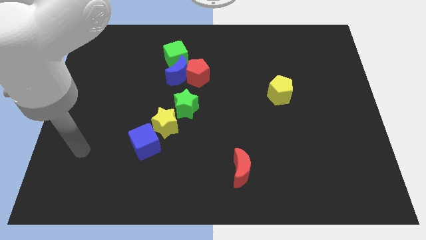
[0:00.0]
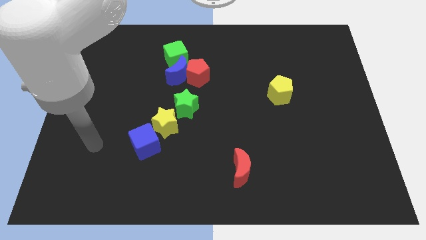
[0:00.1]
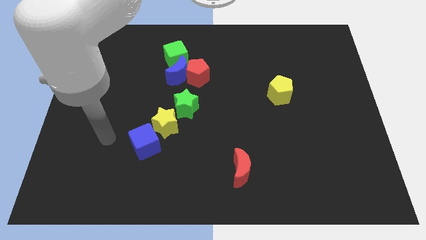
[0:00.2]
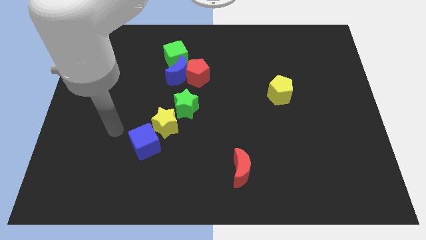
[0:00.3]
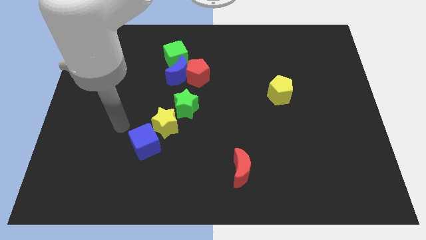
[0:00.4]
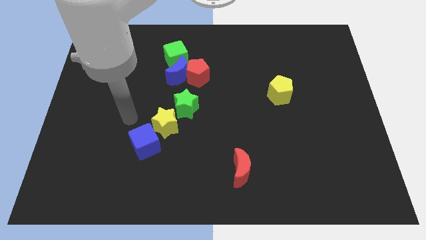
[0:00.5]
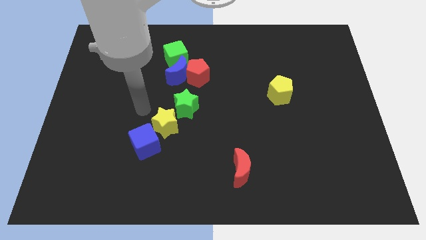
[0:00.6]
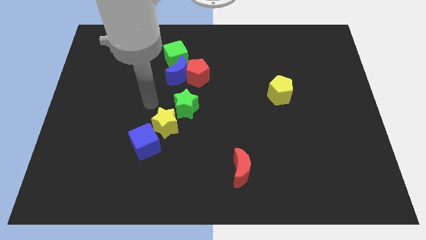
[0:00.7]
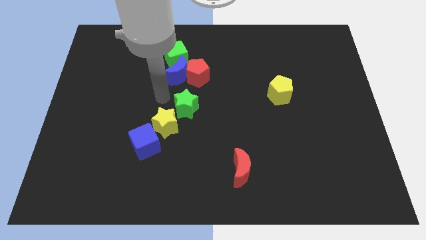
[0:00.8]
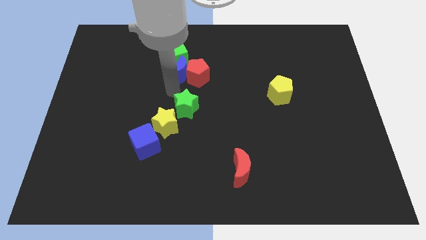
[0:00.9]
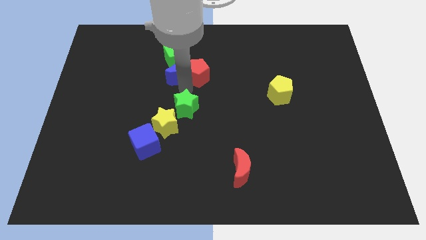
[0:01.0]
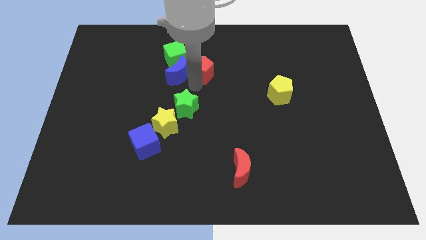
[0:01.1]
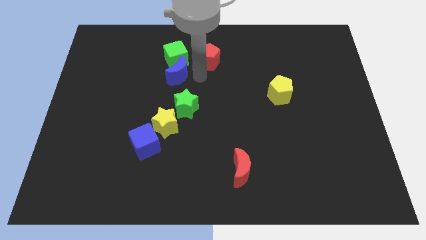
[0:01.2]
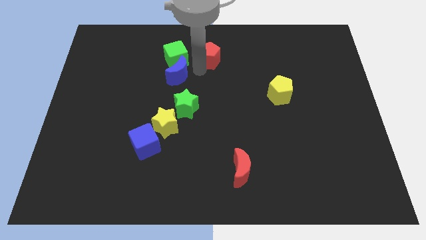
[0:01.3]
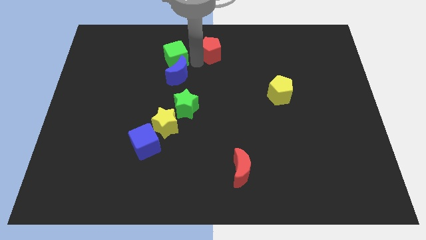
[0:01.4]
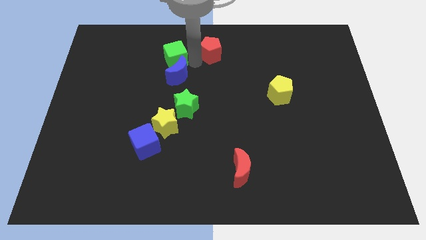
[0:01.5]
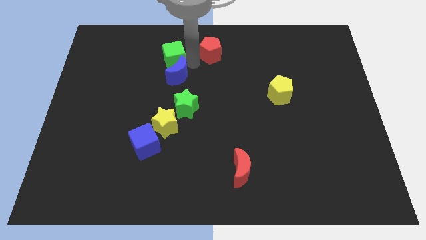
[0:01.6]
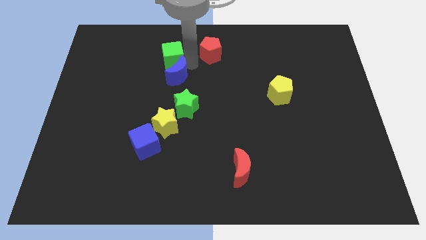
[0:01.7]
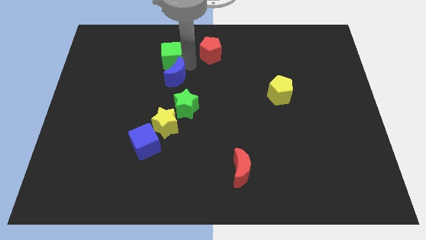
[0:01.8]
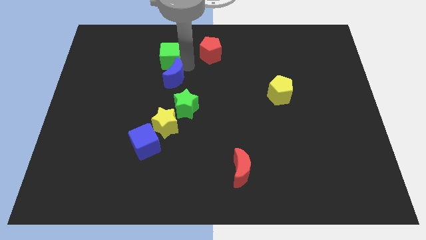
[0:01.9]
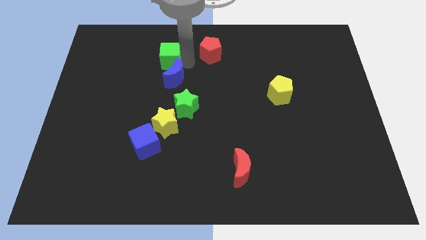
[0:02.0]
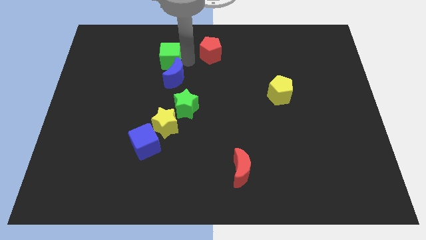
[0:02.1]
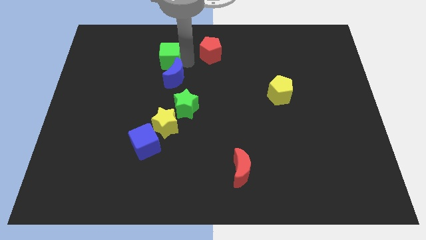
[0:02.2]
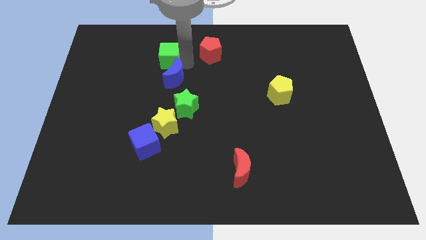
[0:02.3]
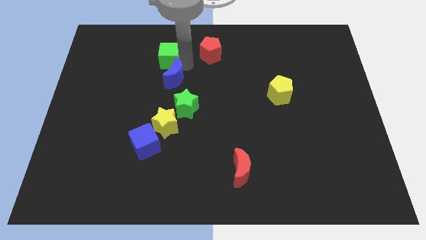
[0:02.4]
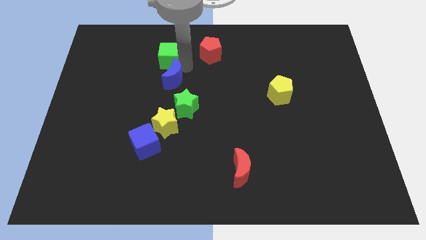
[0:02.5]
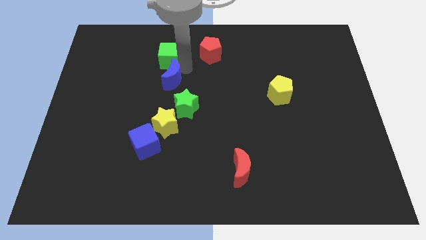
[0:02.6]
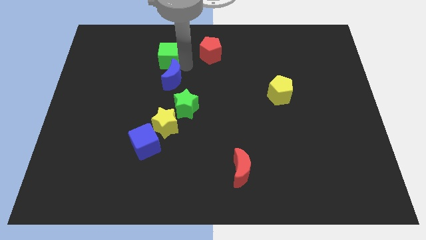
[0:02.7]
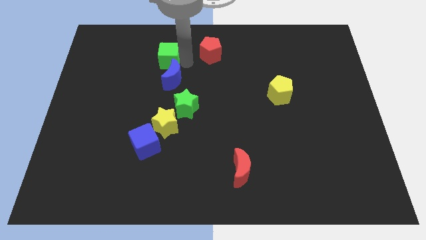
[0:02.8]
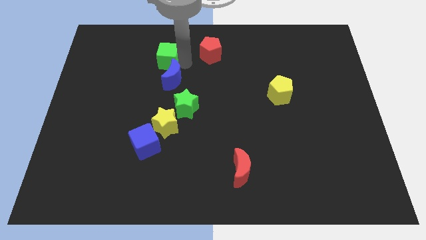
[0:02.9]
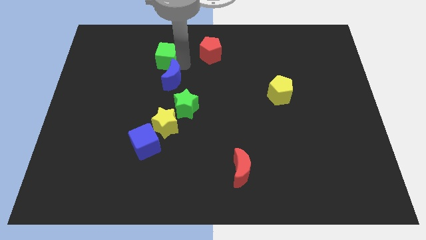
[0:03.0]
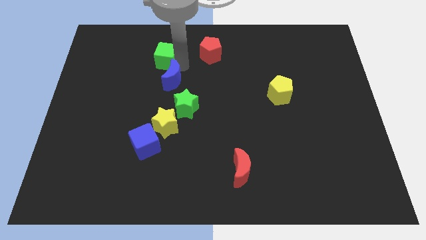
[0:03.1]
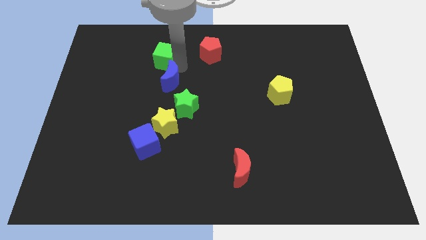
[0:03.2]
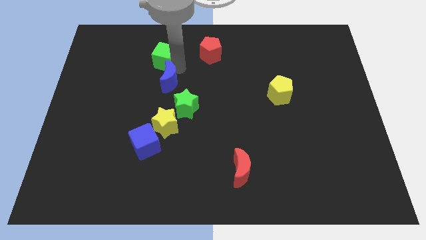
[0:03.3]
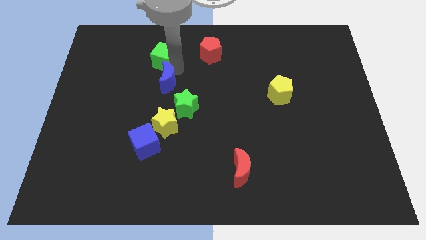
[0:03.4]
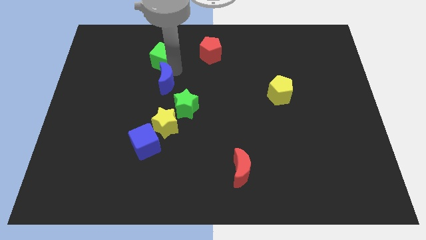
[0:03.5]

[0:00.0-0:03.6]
move the blue moon away from the red pentagon and green cube

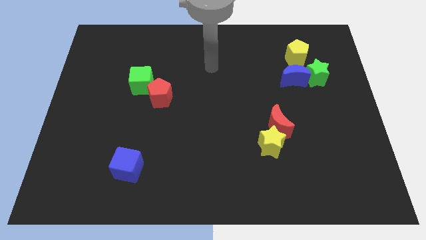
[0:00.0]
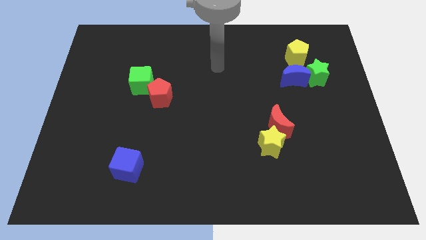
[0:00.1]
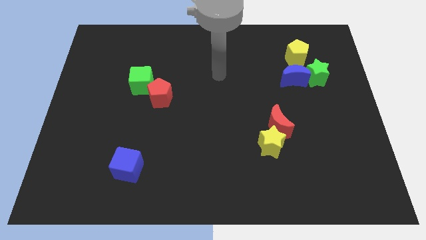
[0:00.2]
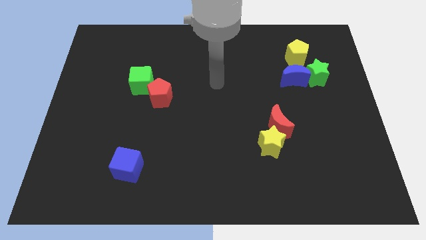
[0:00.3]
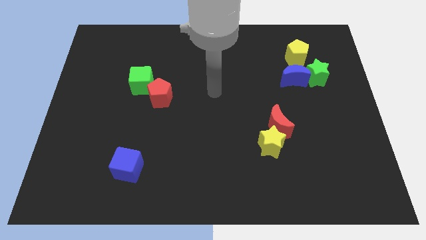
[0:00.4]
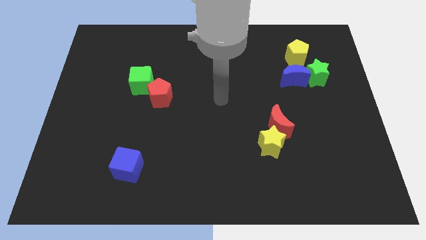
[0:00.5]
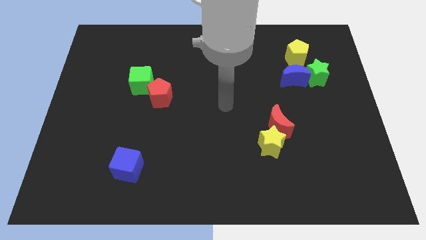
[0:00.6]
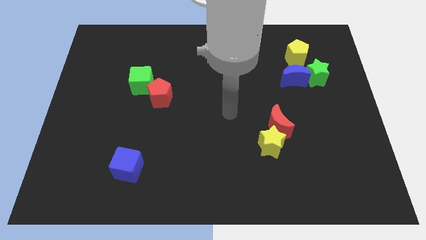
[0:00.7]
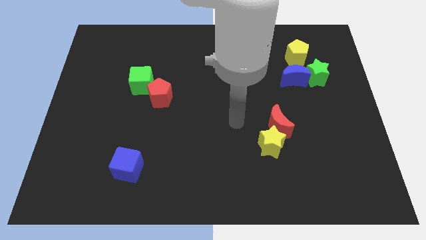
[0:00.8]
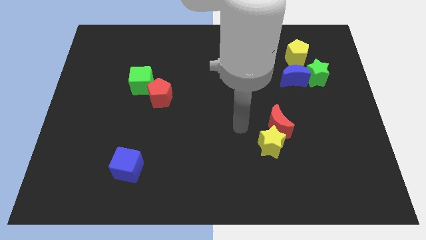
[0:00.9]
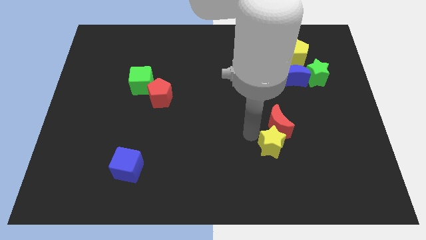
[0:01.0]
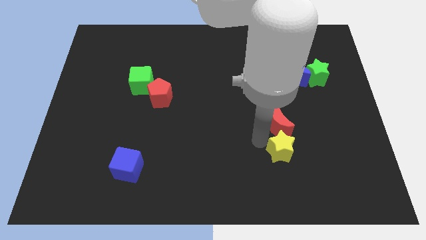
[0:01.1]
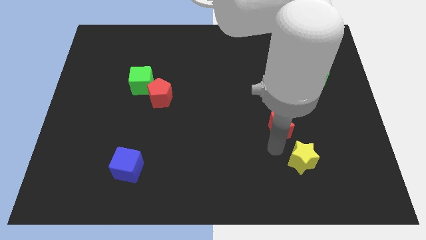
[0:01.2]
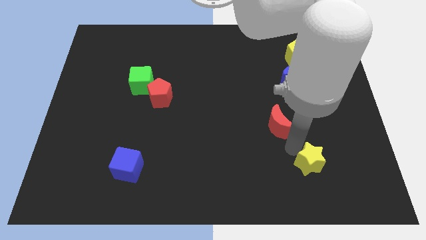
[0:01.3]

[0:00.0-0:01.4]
pull the red moon apart from the yellow star

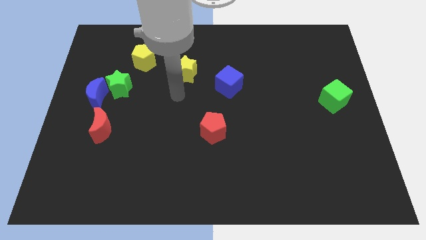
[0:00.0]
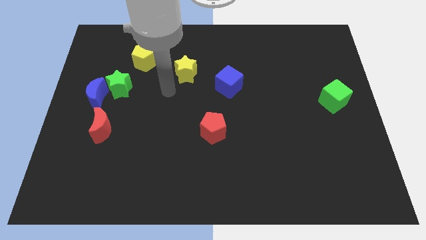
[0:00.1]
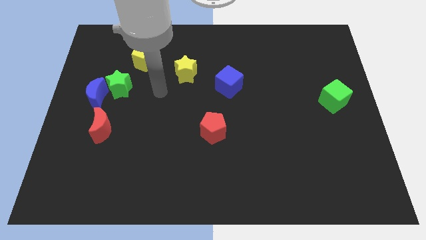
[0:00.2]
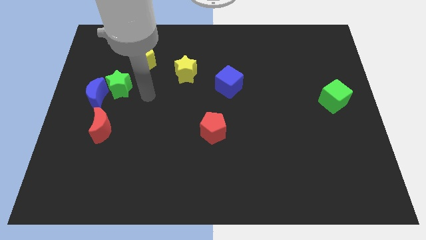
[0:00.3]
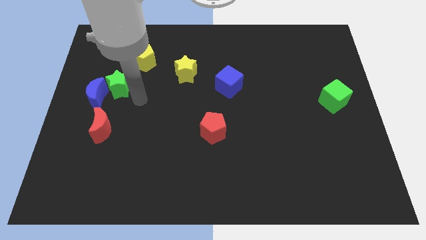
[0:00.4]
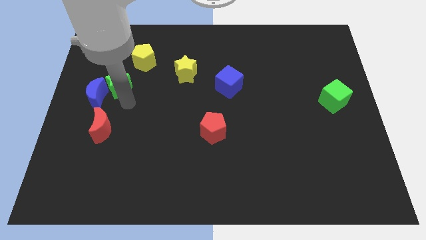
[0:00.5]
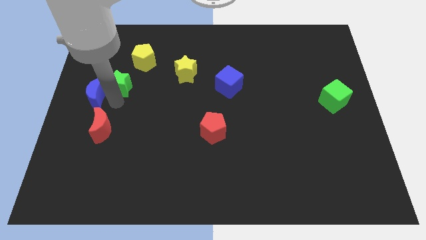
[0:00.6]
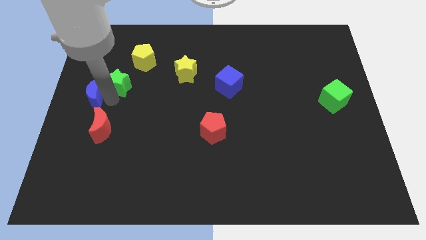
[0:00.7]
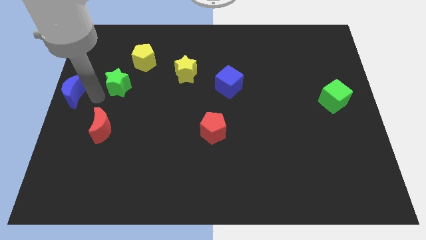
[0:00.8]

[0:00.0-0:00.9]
separate the green star from the blue moon

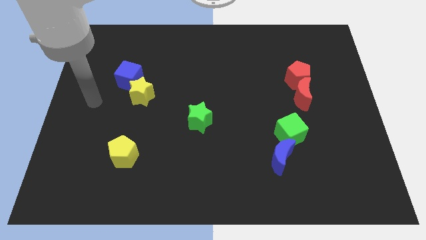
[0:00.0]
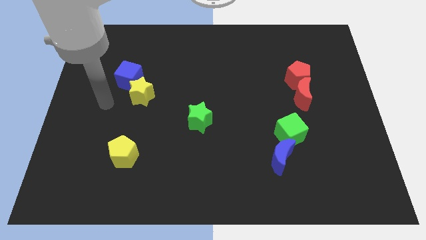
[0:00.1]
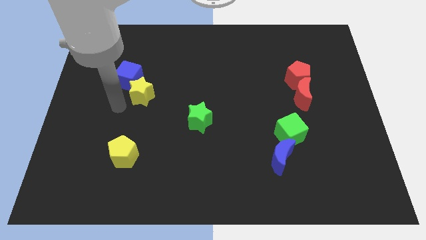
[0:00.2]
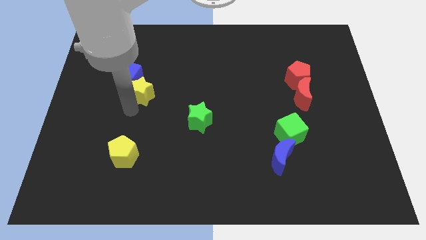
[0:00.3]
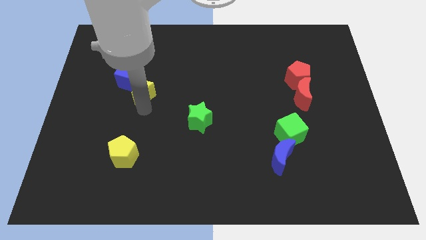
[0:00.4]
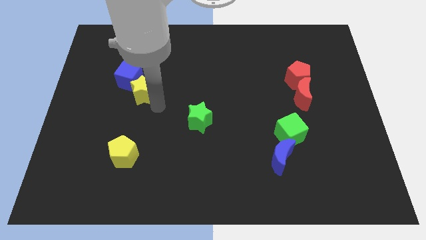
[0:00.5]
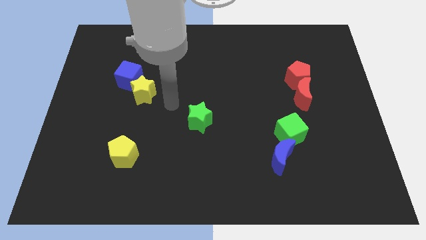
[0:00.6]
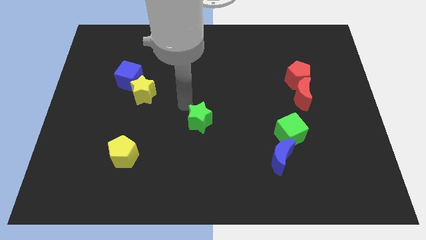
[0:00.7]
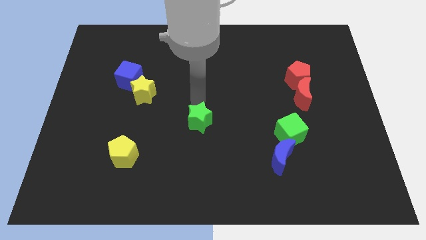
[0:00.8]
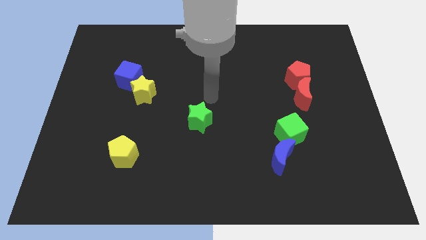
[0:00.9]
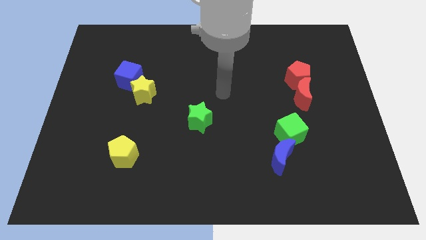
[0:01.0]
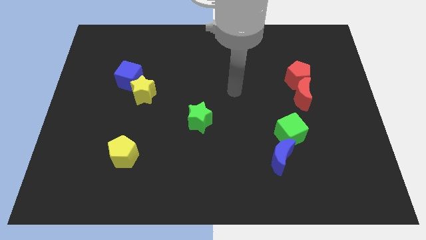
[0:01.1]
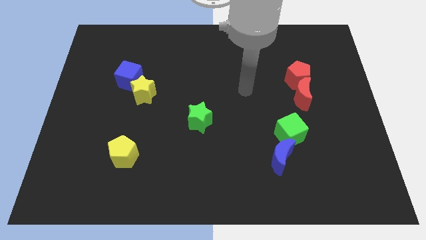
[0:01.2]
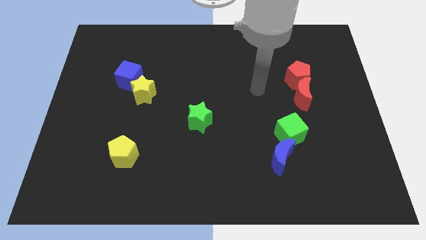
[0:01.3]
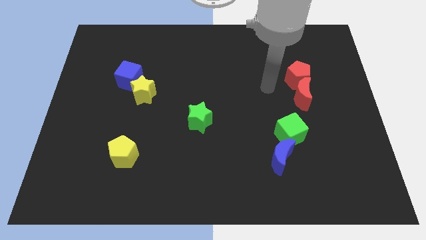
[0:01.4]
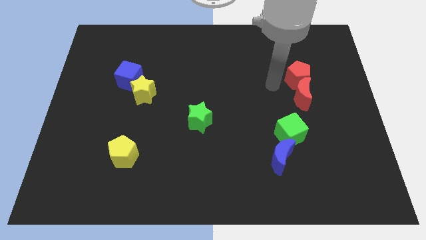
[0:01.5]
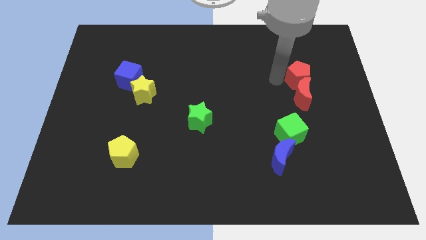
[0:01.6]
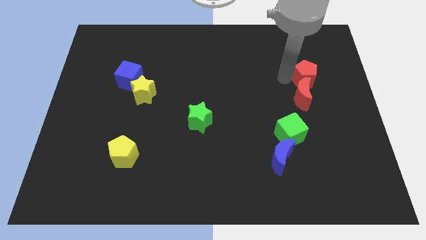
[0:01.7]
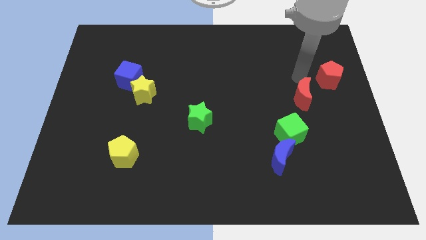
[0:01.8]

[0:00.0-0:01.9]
separate the red moon from the red pentagon

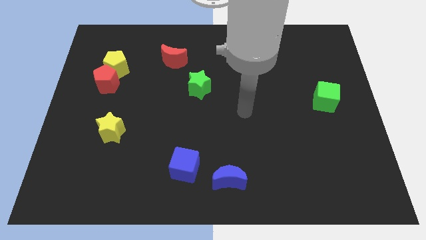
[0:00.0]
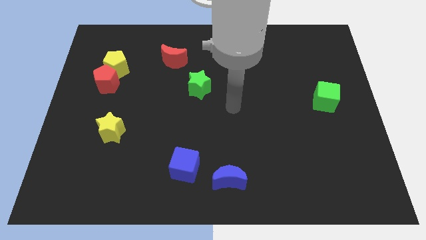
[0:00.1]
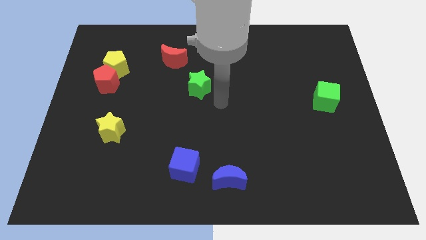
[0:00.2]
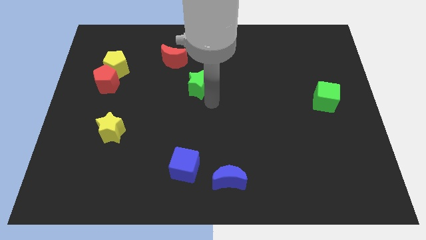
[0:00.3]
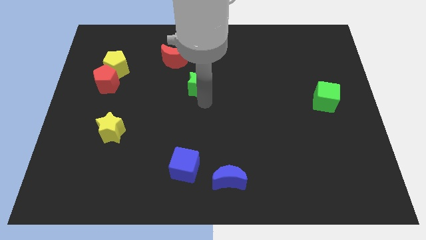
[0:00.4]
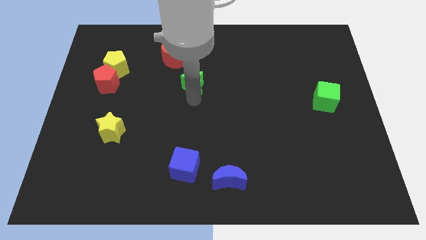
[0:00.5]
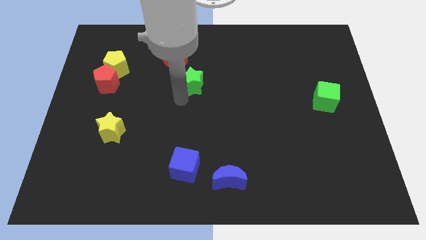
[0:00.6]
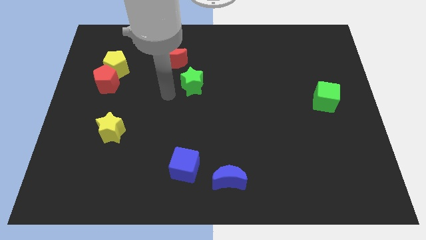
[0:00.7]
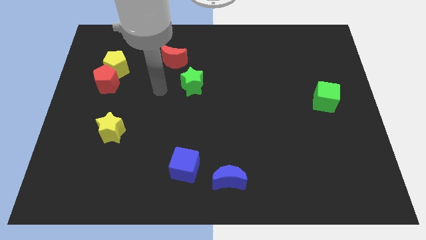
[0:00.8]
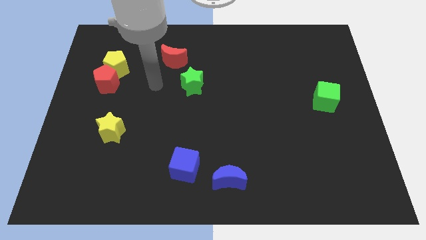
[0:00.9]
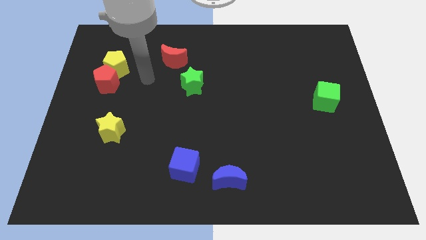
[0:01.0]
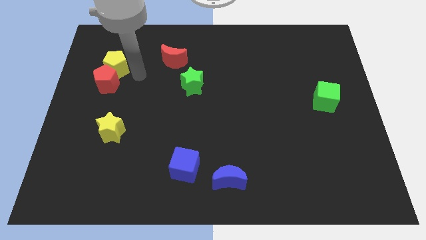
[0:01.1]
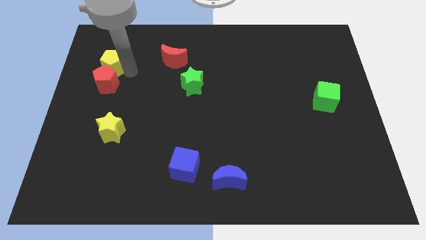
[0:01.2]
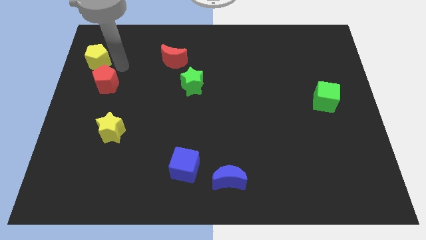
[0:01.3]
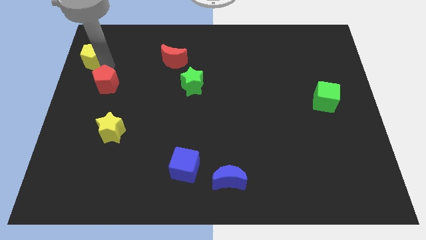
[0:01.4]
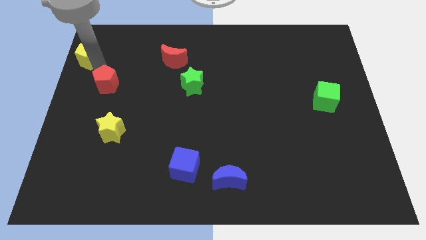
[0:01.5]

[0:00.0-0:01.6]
pull the red pentagon apart from the yellow pentagon
